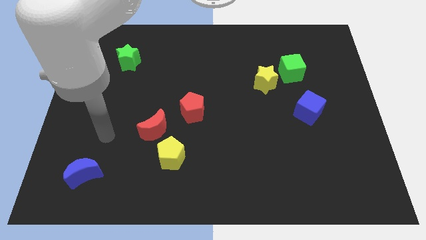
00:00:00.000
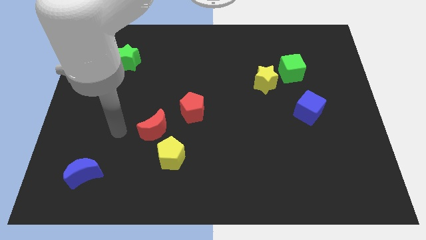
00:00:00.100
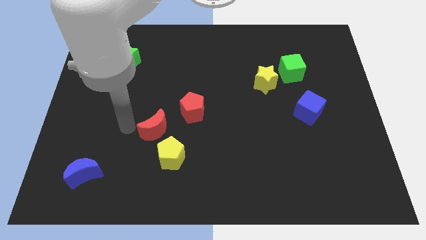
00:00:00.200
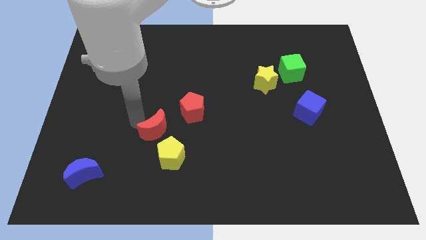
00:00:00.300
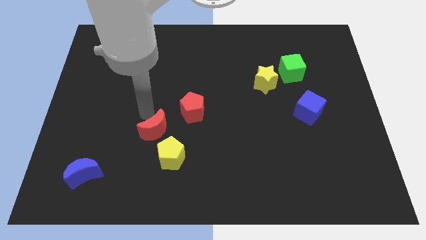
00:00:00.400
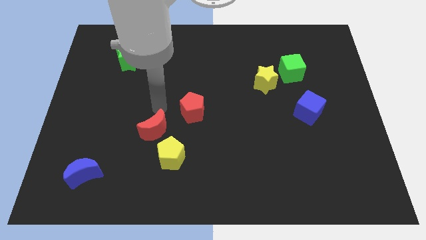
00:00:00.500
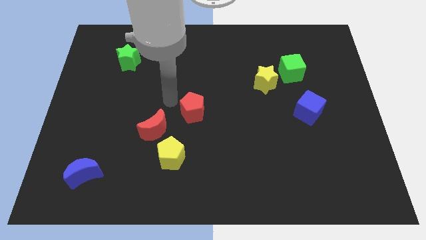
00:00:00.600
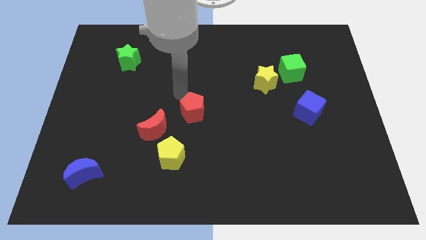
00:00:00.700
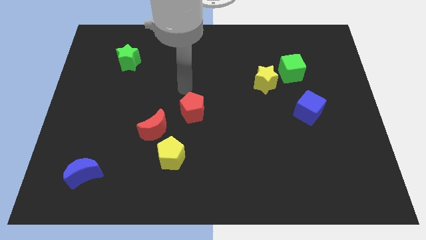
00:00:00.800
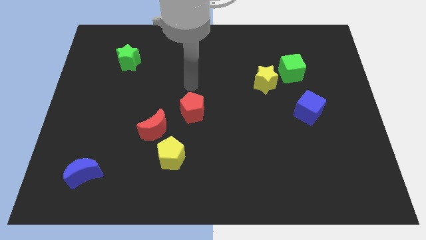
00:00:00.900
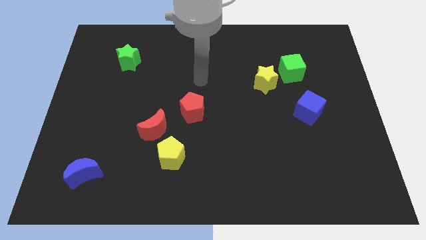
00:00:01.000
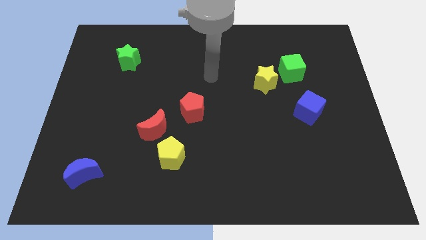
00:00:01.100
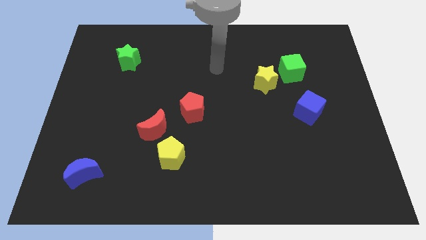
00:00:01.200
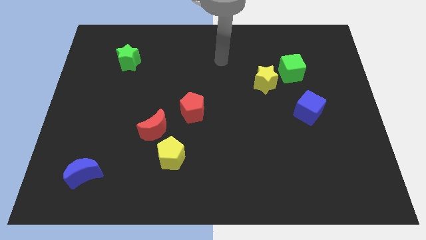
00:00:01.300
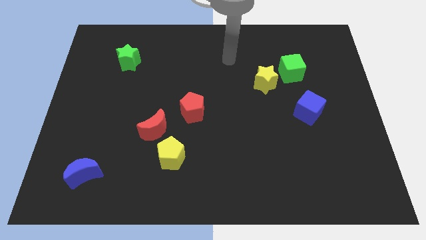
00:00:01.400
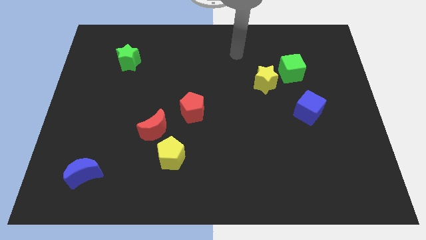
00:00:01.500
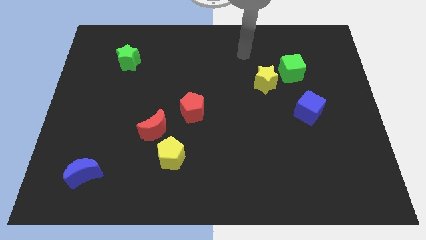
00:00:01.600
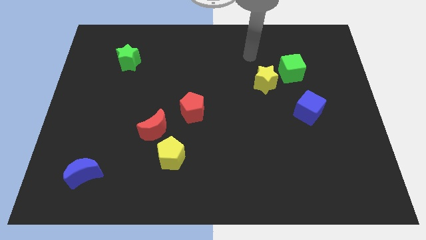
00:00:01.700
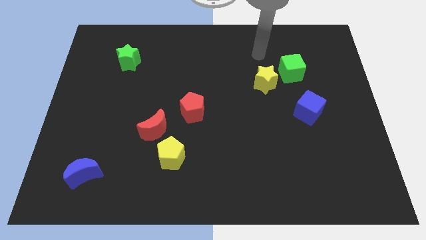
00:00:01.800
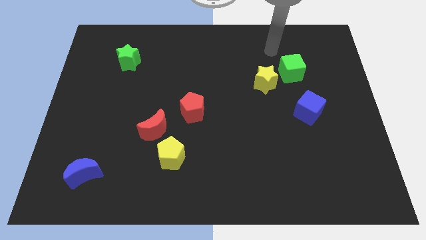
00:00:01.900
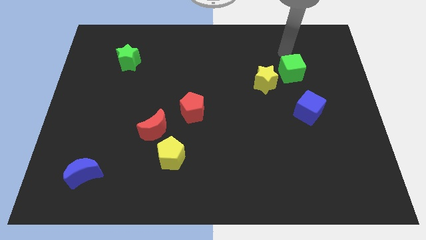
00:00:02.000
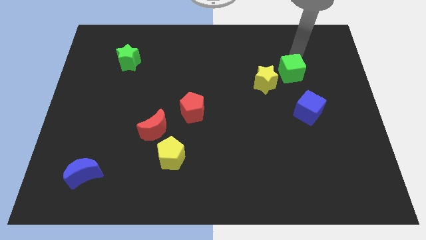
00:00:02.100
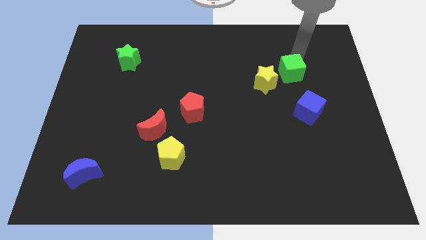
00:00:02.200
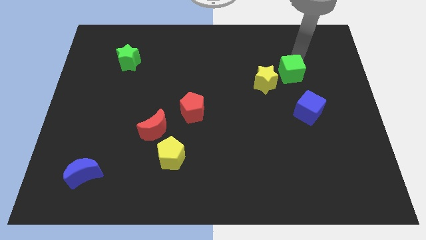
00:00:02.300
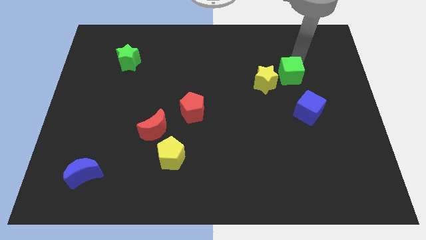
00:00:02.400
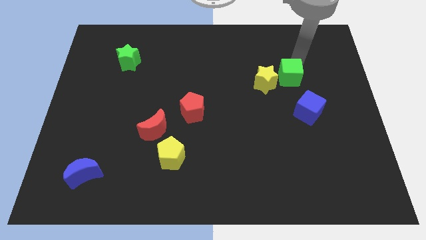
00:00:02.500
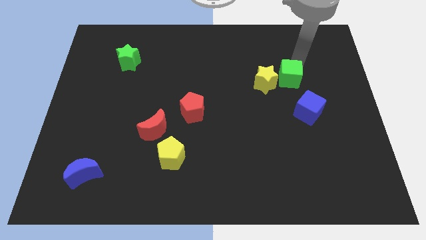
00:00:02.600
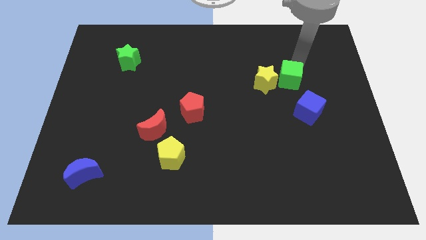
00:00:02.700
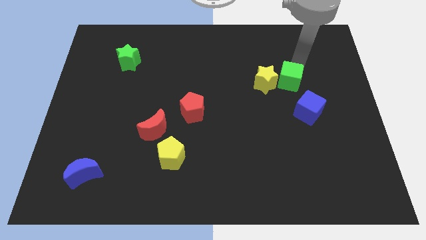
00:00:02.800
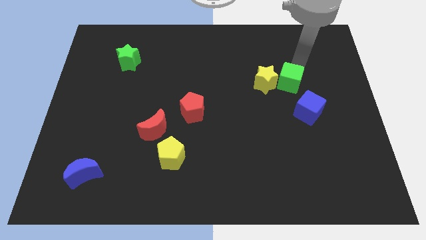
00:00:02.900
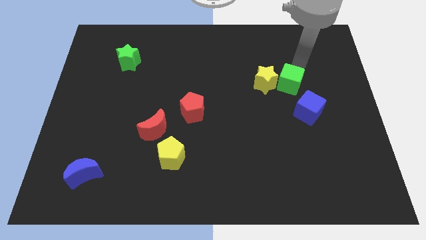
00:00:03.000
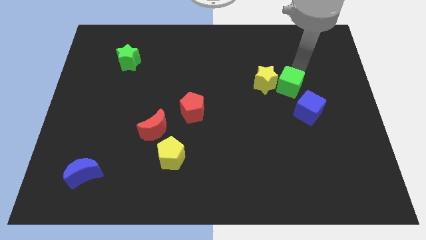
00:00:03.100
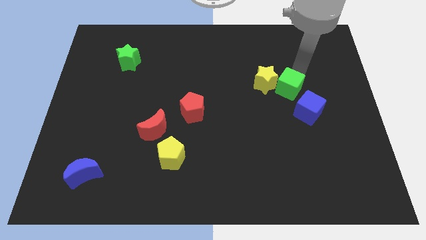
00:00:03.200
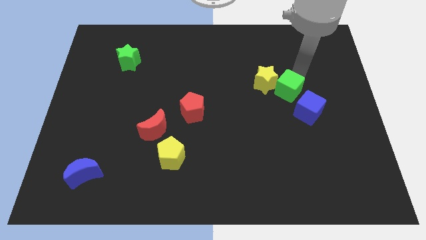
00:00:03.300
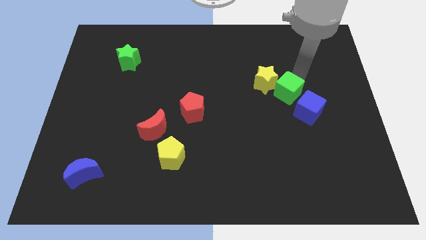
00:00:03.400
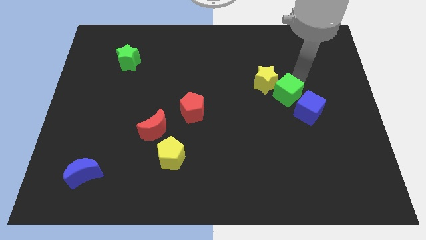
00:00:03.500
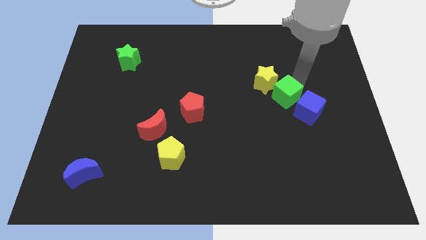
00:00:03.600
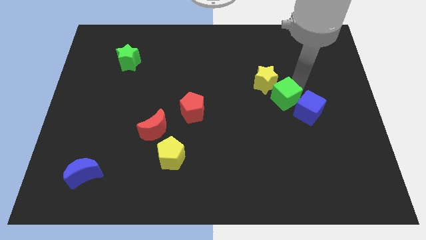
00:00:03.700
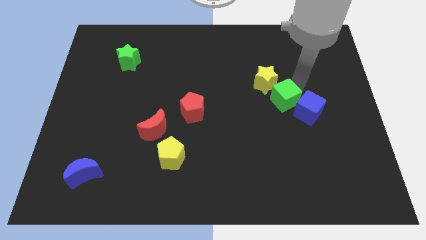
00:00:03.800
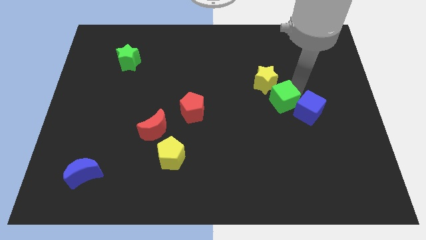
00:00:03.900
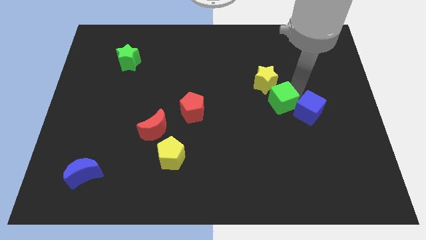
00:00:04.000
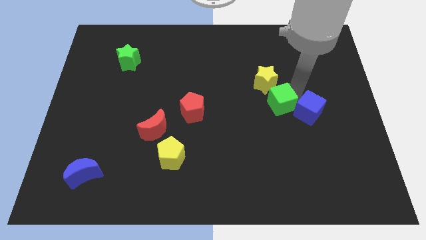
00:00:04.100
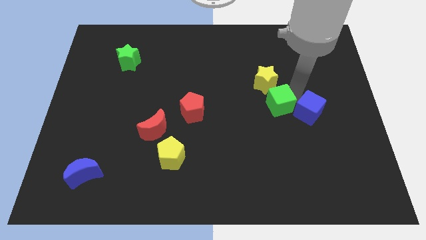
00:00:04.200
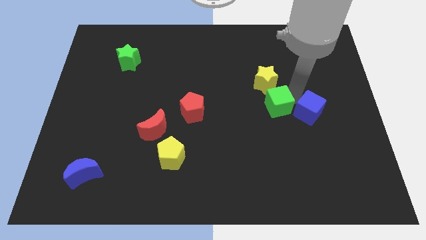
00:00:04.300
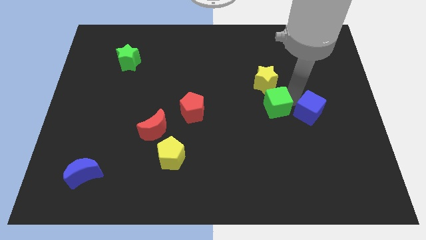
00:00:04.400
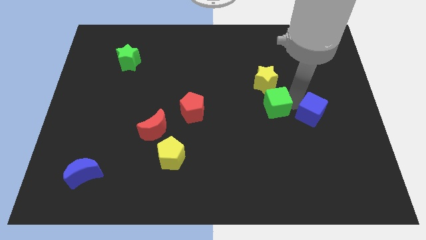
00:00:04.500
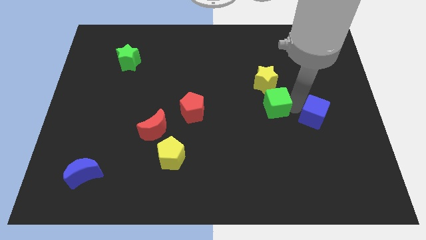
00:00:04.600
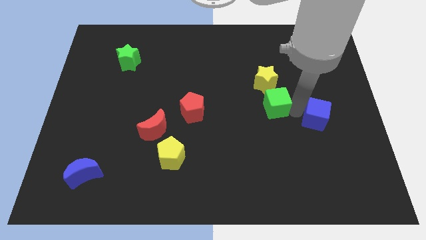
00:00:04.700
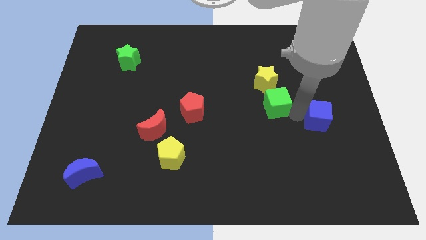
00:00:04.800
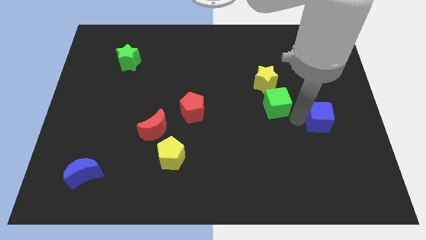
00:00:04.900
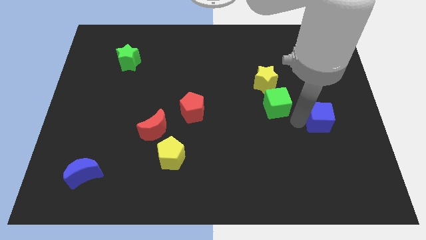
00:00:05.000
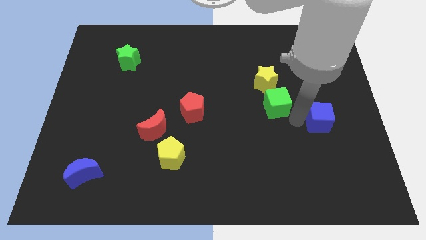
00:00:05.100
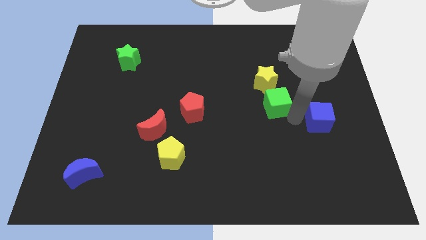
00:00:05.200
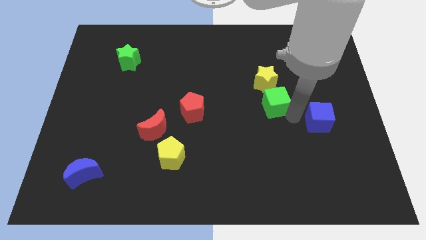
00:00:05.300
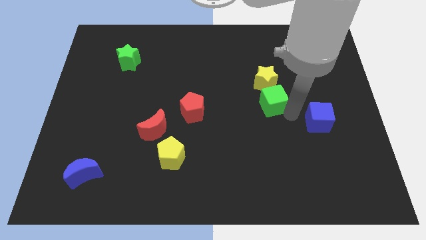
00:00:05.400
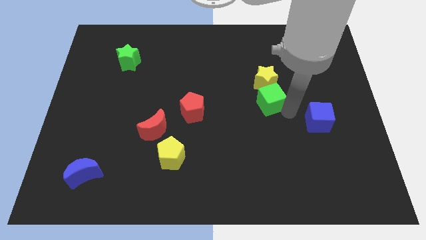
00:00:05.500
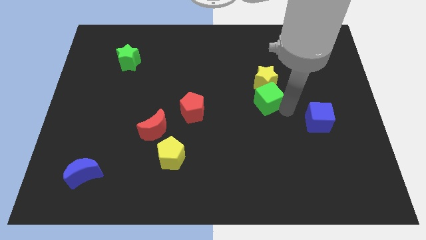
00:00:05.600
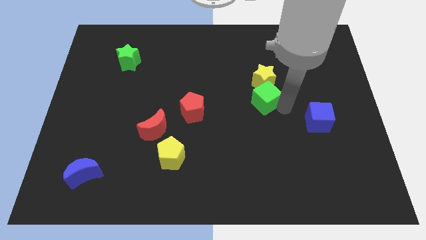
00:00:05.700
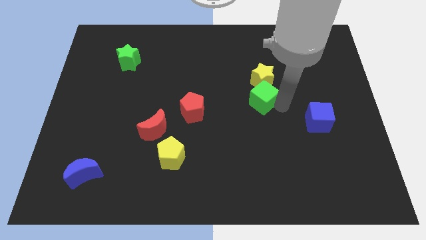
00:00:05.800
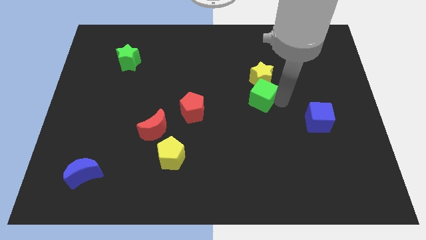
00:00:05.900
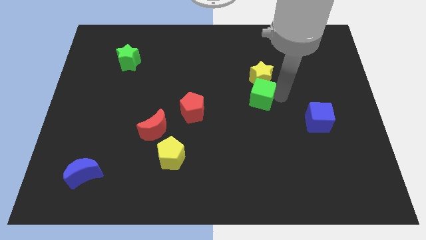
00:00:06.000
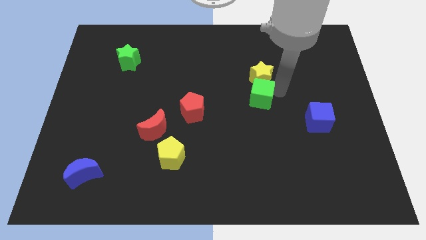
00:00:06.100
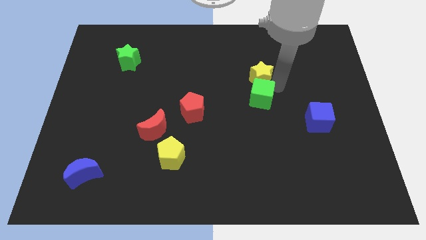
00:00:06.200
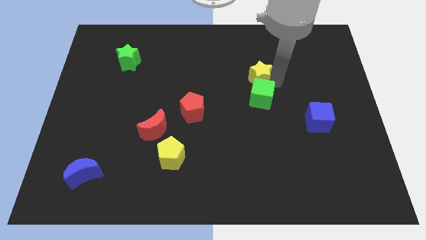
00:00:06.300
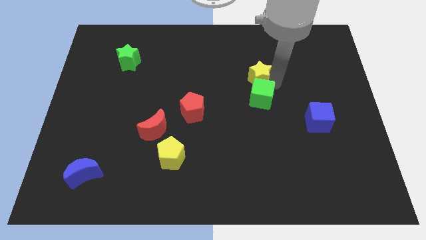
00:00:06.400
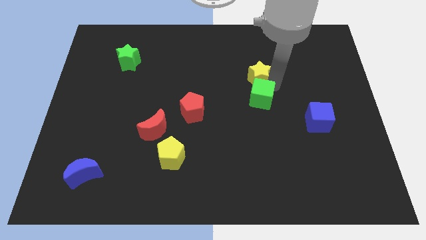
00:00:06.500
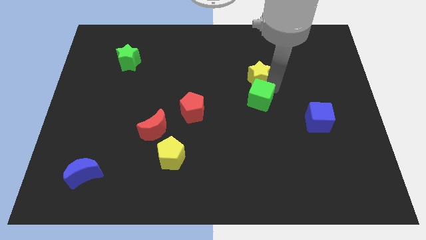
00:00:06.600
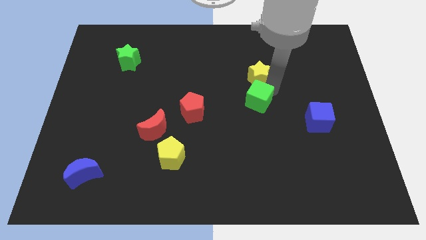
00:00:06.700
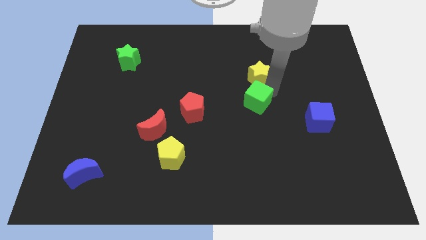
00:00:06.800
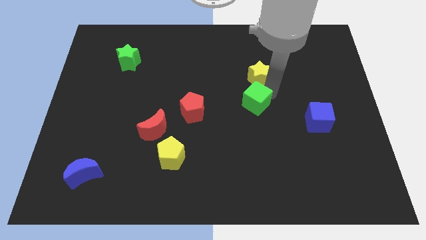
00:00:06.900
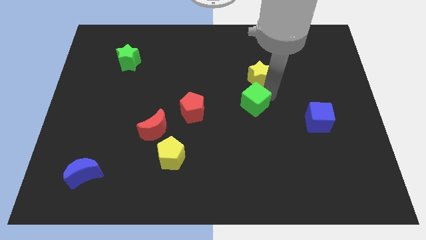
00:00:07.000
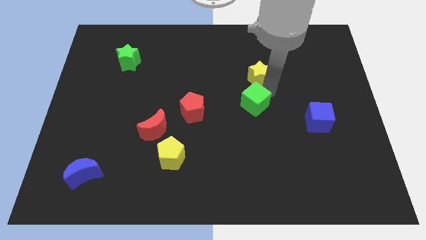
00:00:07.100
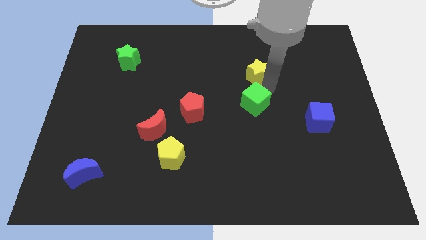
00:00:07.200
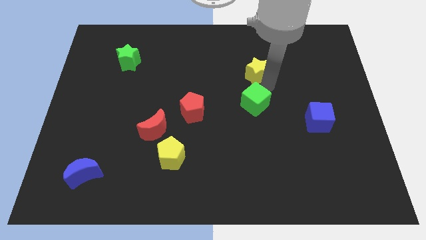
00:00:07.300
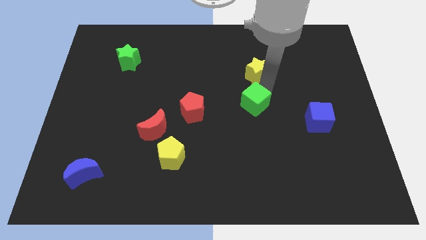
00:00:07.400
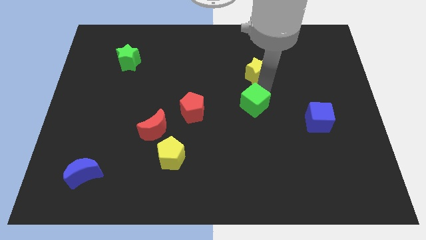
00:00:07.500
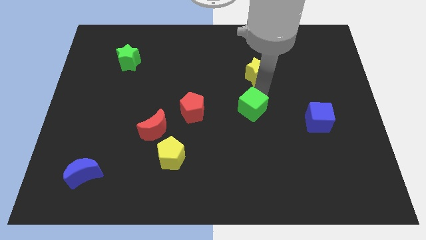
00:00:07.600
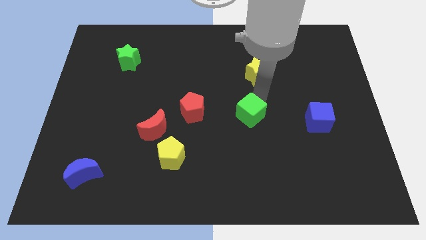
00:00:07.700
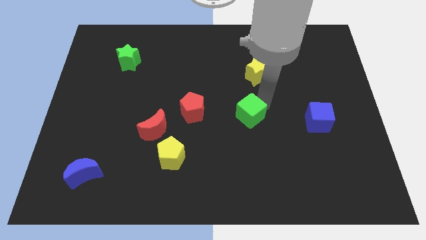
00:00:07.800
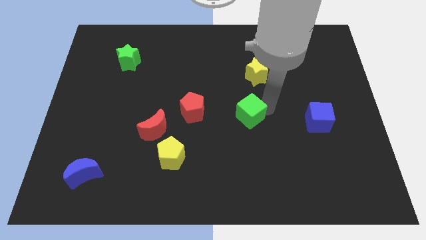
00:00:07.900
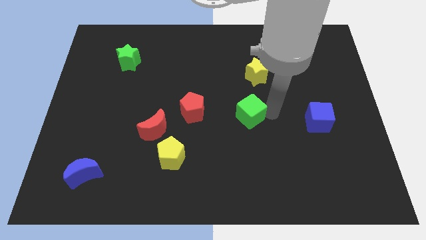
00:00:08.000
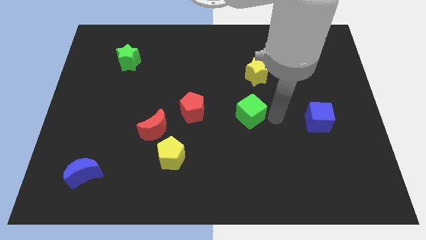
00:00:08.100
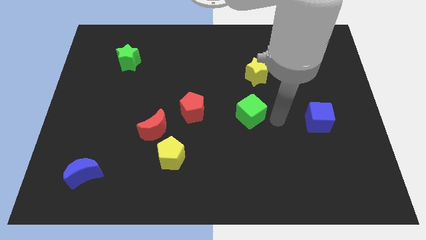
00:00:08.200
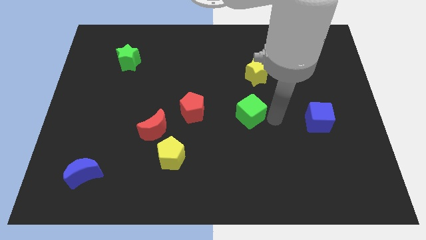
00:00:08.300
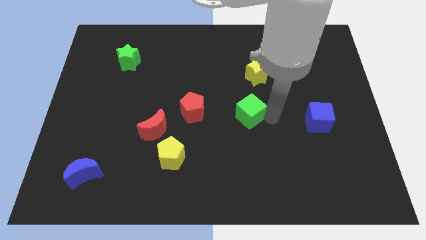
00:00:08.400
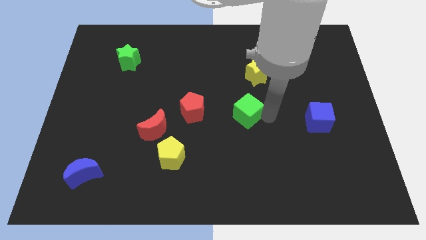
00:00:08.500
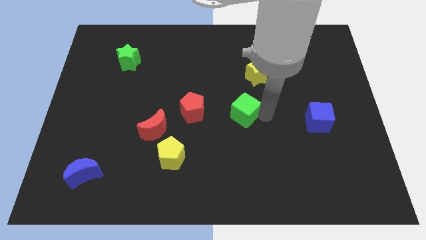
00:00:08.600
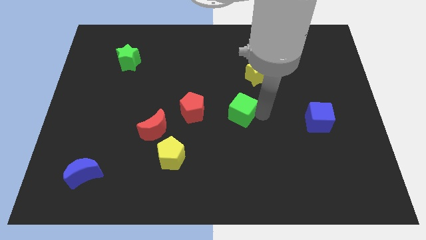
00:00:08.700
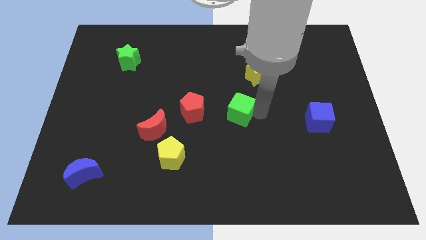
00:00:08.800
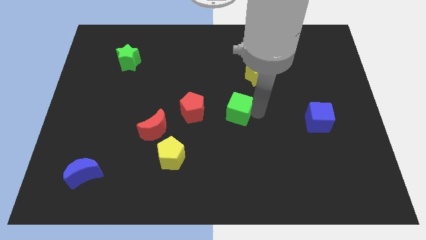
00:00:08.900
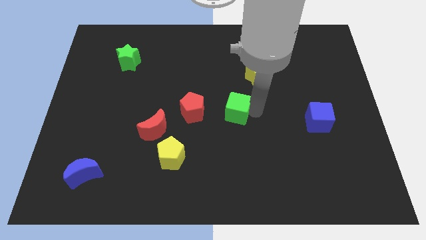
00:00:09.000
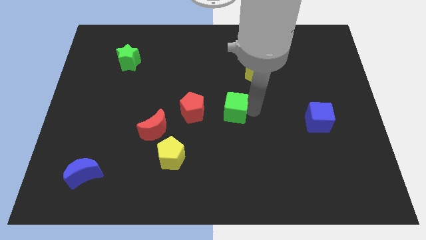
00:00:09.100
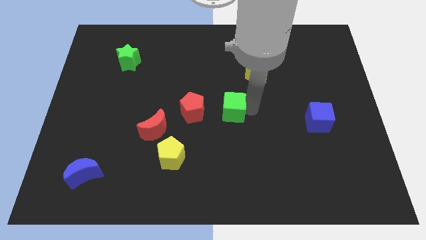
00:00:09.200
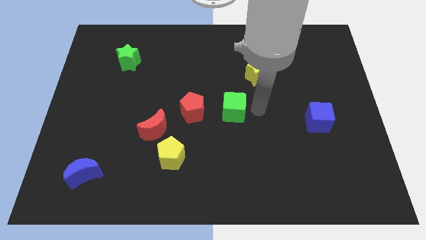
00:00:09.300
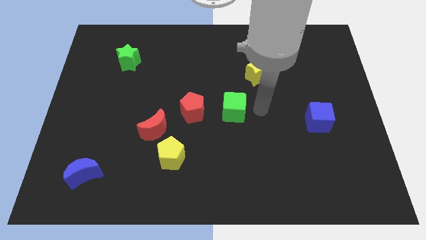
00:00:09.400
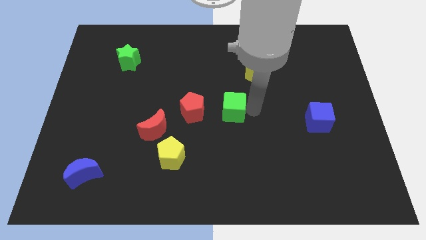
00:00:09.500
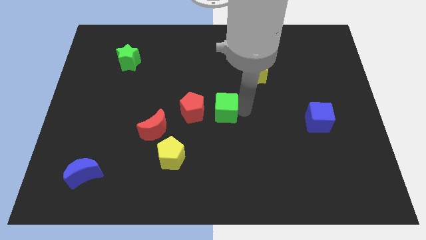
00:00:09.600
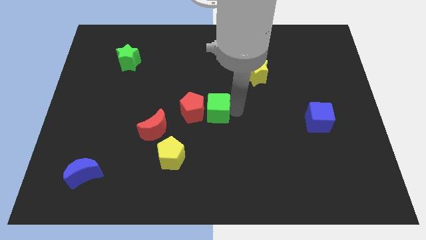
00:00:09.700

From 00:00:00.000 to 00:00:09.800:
put the green cube towards the red pentagon
